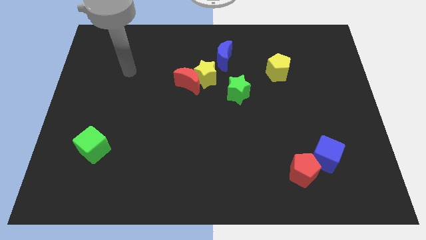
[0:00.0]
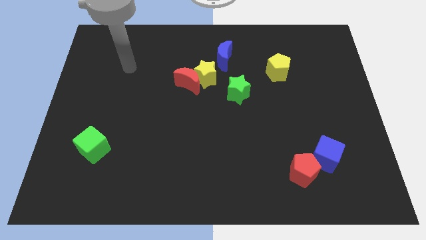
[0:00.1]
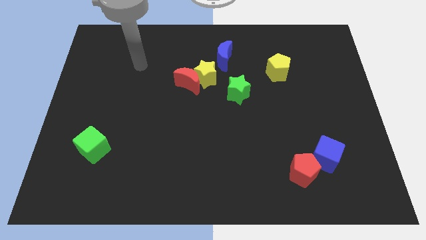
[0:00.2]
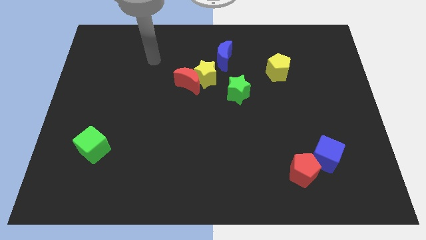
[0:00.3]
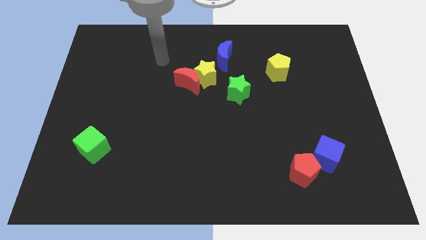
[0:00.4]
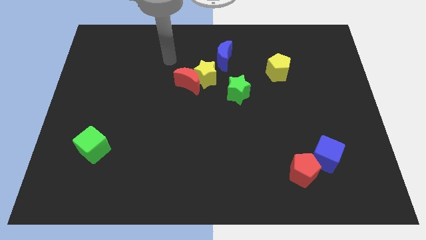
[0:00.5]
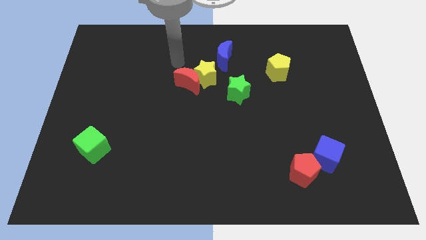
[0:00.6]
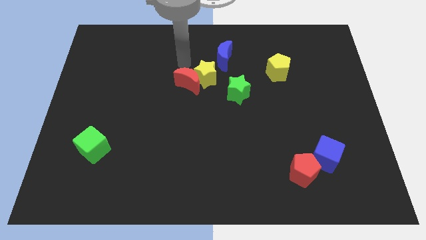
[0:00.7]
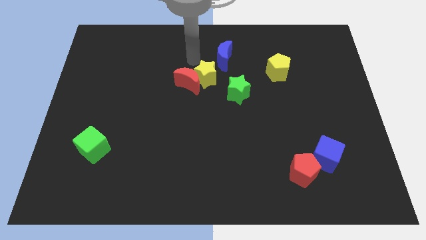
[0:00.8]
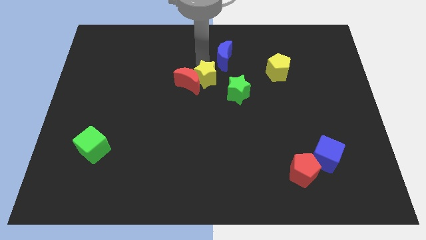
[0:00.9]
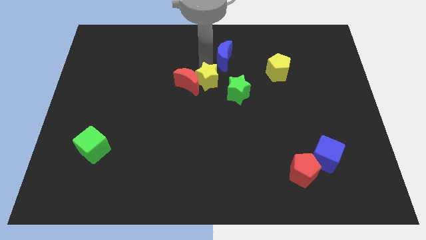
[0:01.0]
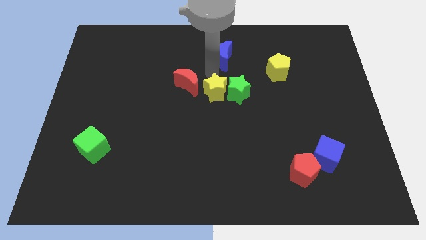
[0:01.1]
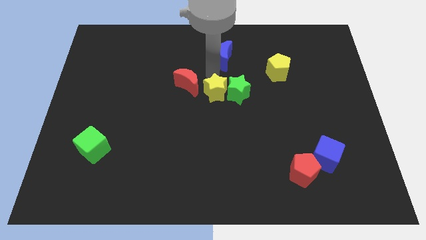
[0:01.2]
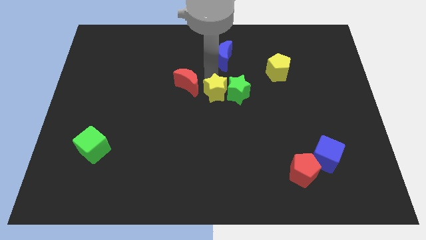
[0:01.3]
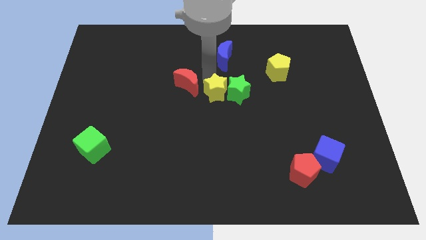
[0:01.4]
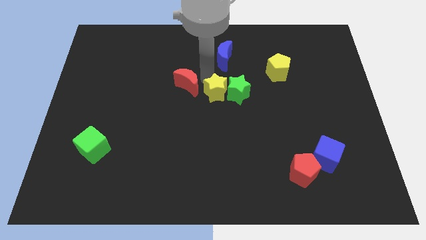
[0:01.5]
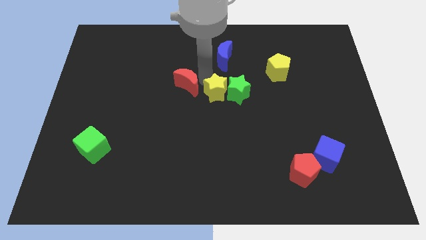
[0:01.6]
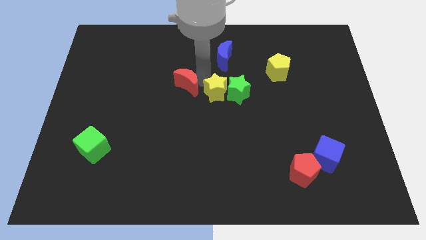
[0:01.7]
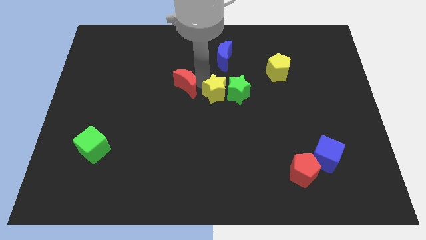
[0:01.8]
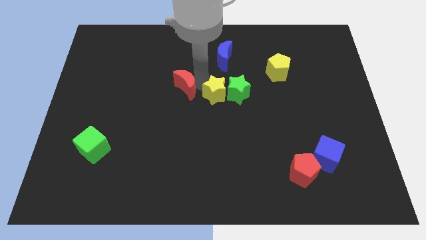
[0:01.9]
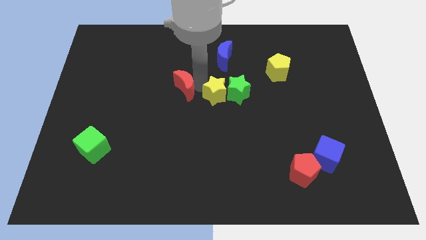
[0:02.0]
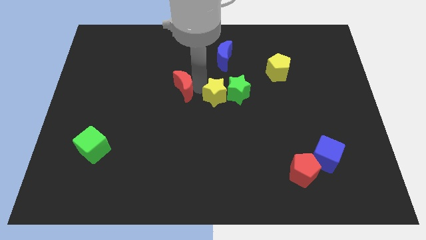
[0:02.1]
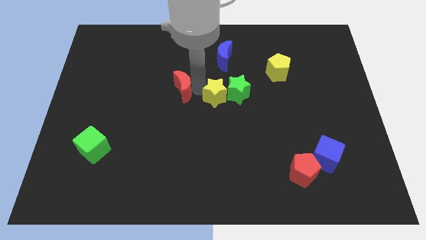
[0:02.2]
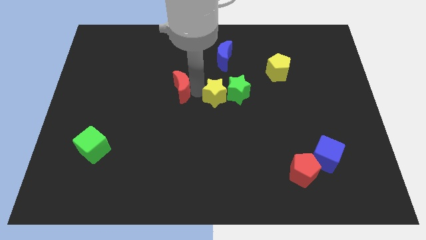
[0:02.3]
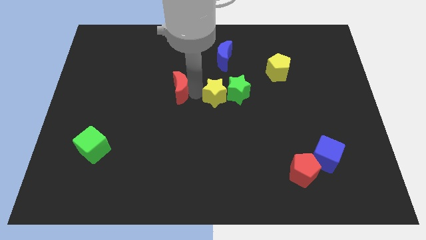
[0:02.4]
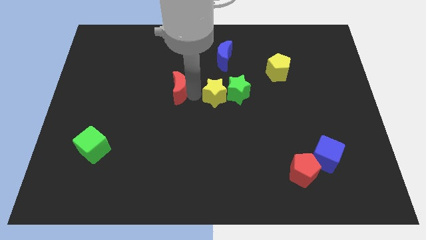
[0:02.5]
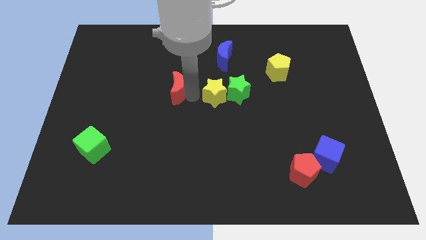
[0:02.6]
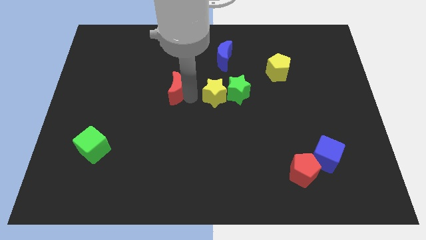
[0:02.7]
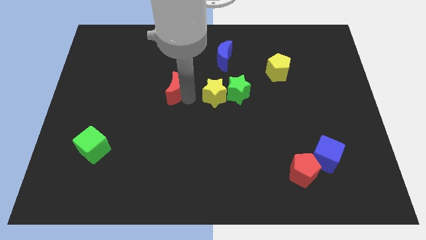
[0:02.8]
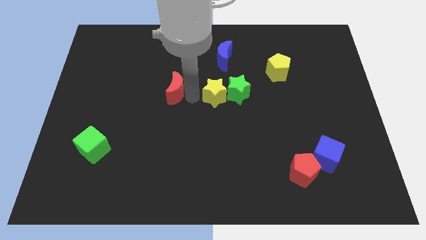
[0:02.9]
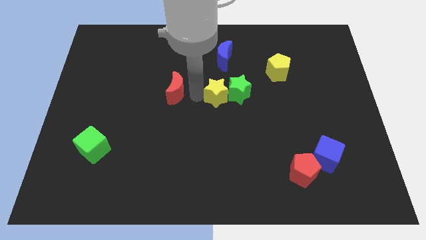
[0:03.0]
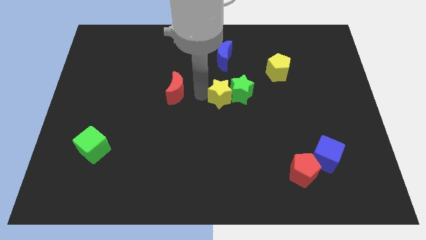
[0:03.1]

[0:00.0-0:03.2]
move the red moon away from the yellow star

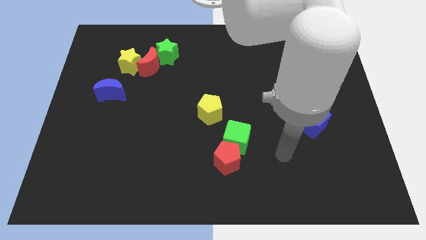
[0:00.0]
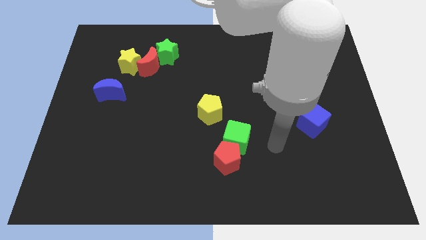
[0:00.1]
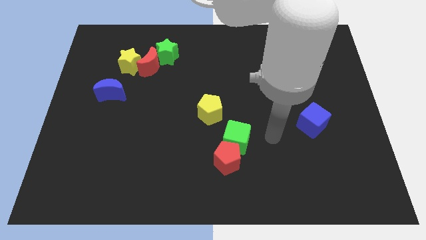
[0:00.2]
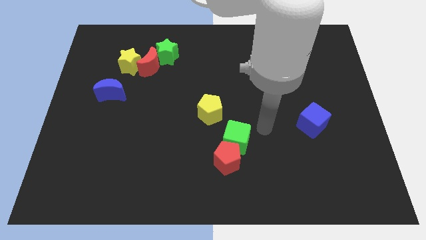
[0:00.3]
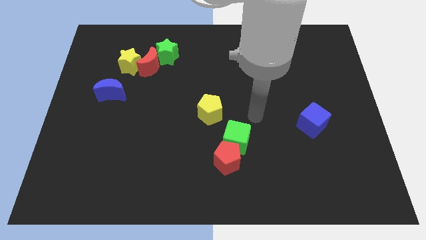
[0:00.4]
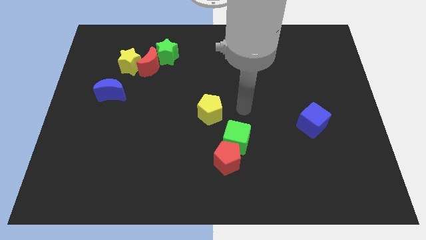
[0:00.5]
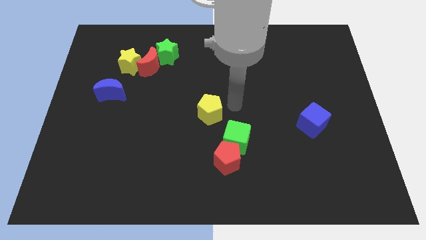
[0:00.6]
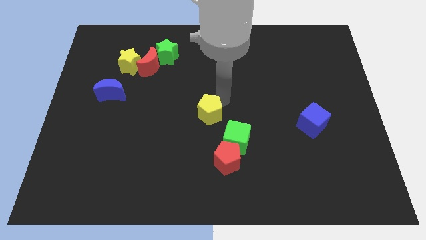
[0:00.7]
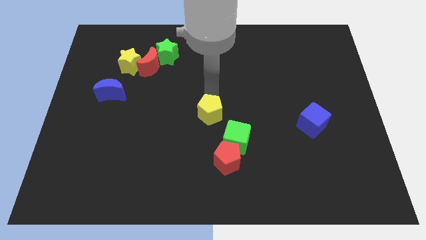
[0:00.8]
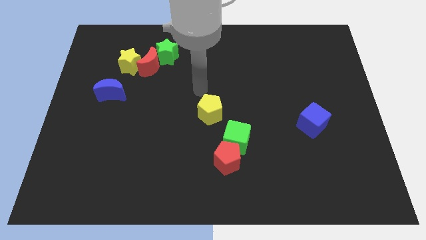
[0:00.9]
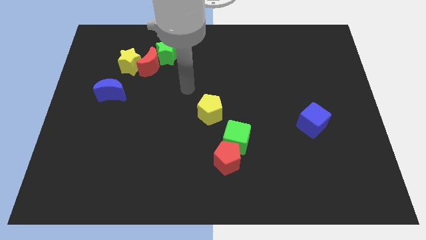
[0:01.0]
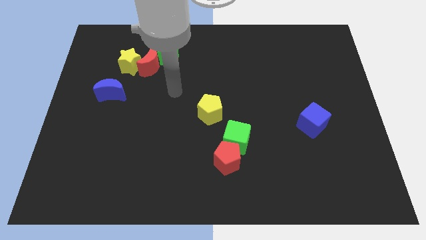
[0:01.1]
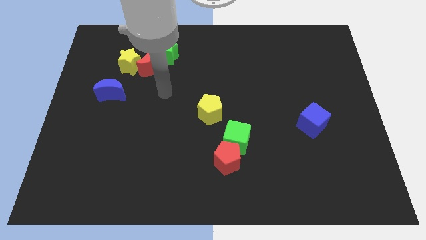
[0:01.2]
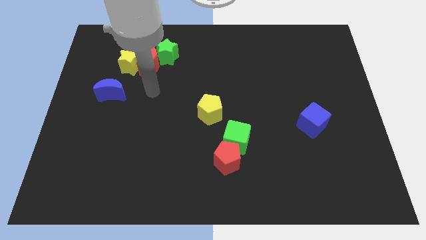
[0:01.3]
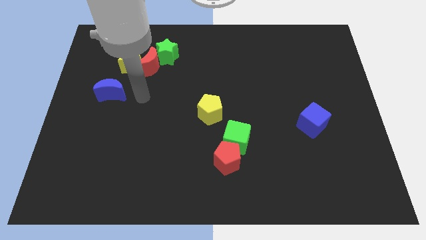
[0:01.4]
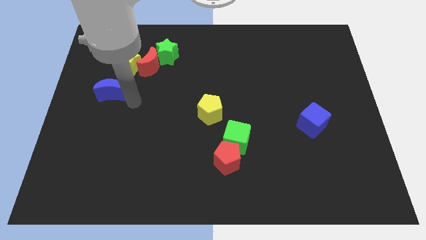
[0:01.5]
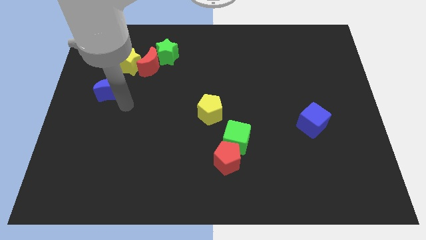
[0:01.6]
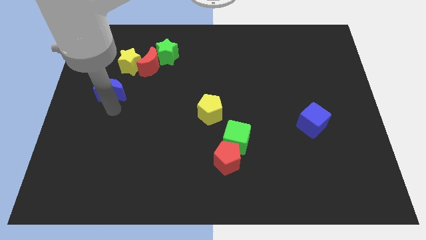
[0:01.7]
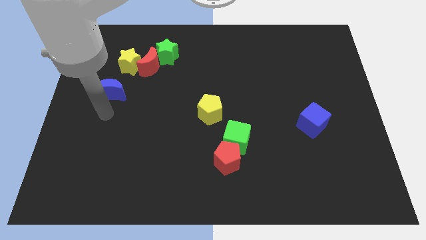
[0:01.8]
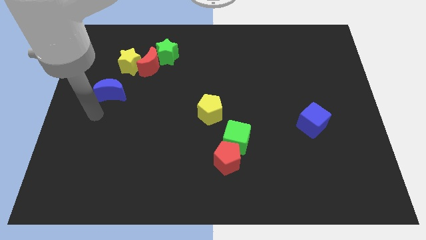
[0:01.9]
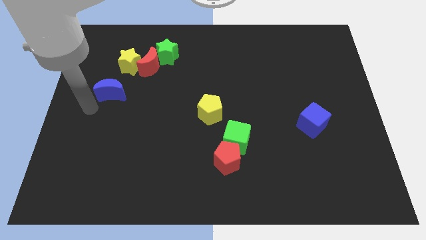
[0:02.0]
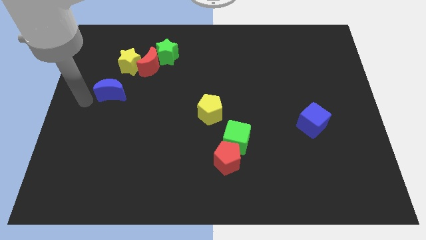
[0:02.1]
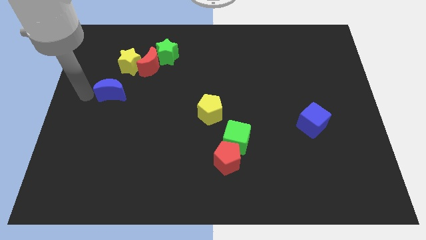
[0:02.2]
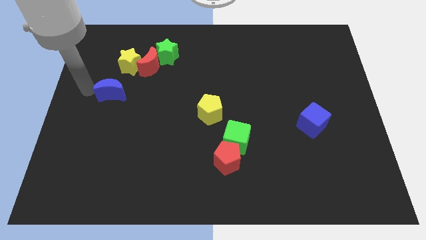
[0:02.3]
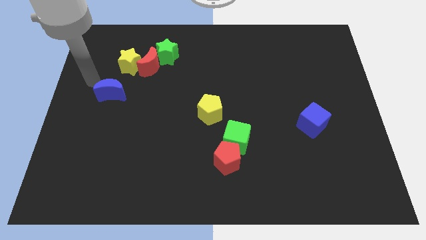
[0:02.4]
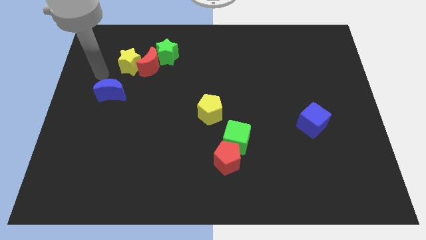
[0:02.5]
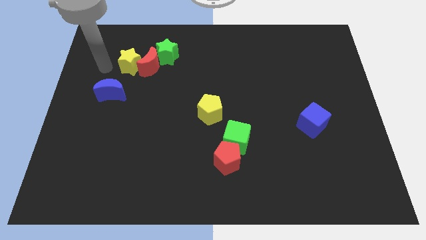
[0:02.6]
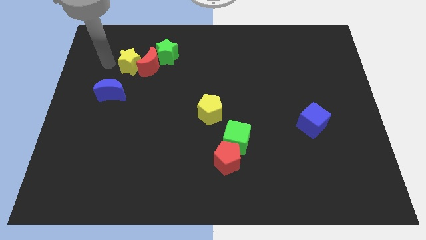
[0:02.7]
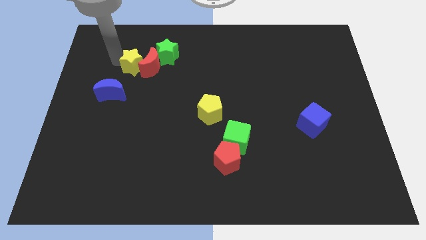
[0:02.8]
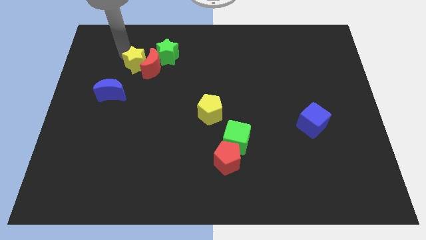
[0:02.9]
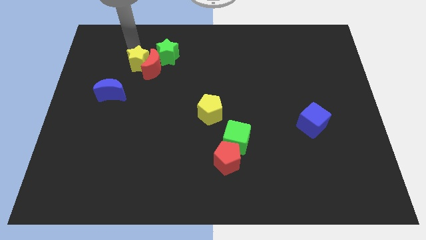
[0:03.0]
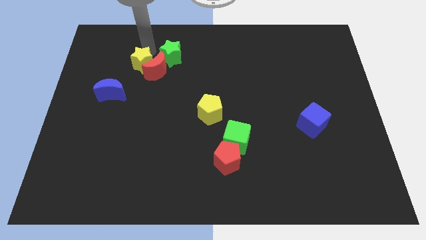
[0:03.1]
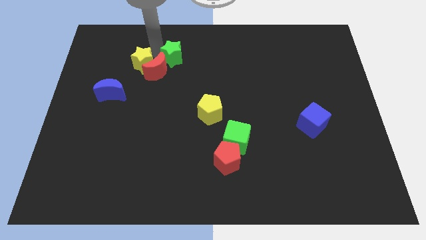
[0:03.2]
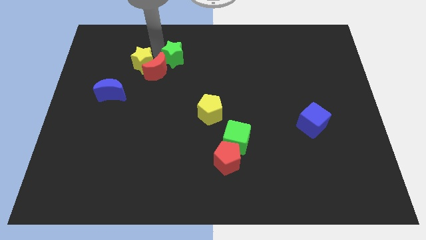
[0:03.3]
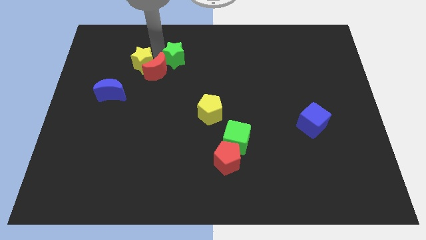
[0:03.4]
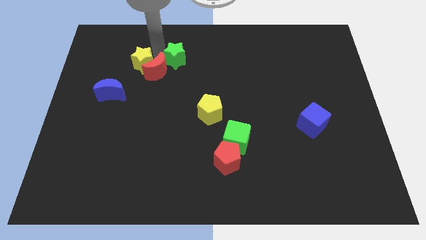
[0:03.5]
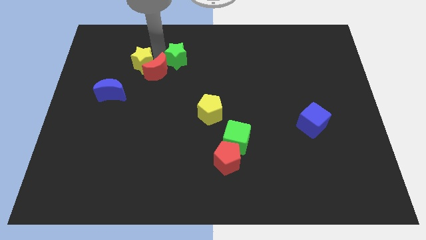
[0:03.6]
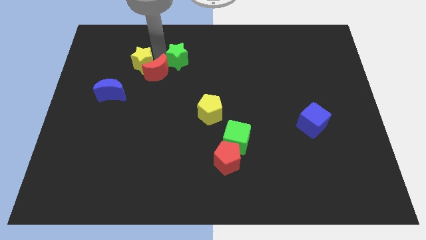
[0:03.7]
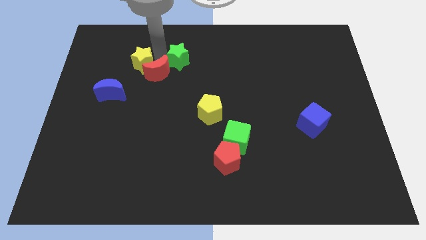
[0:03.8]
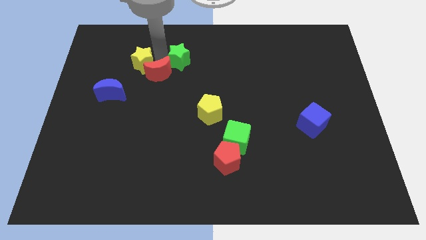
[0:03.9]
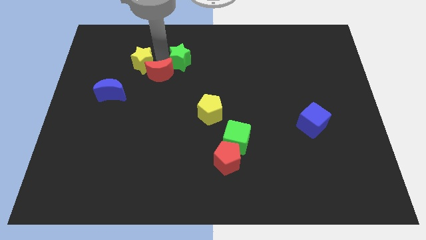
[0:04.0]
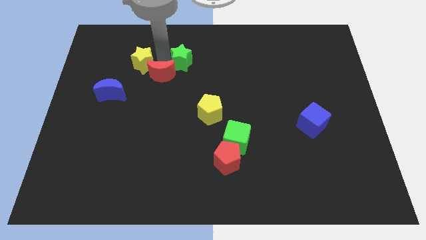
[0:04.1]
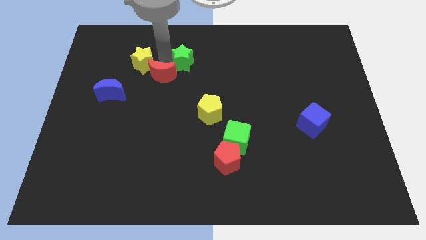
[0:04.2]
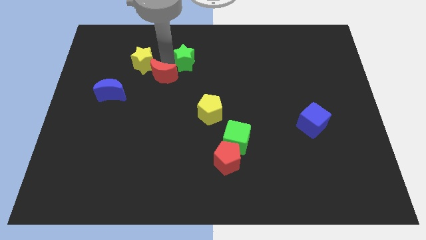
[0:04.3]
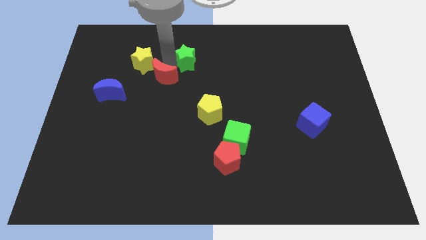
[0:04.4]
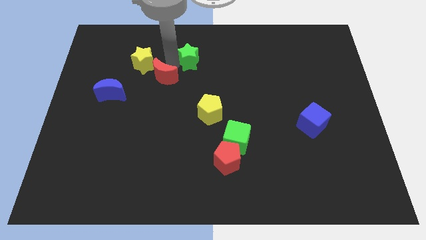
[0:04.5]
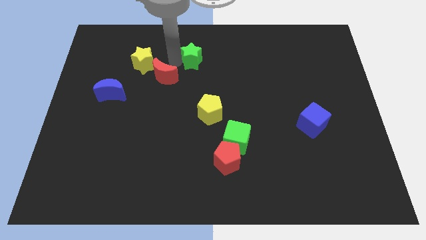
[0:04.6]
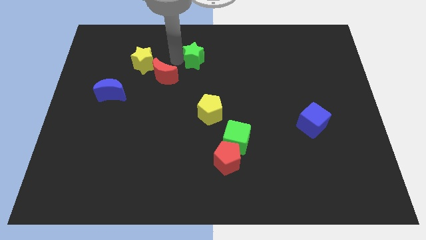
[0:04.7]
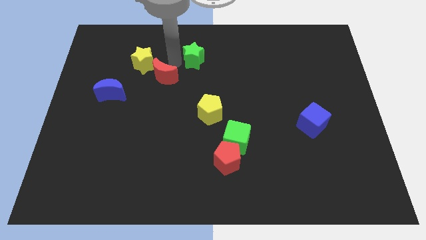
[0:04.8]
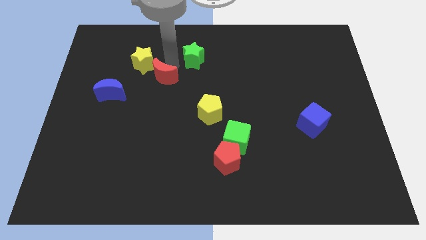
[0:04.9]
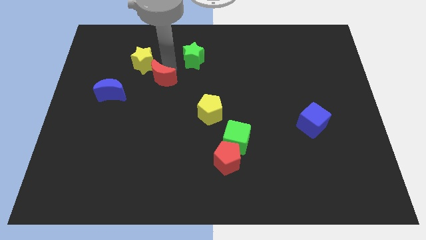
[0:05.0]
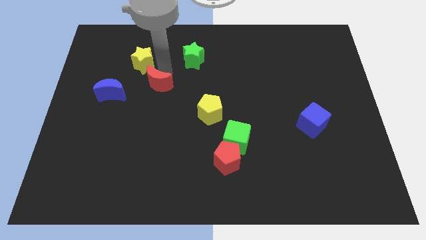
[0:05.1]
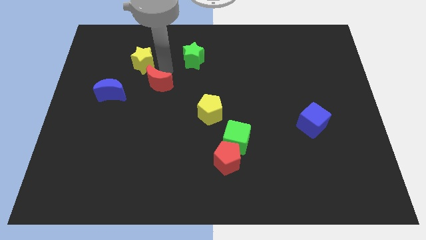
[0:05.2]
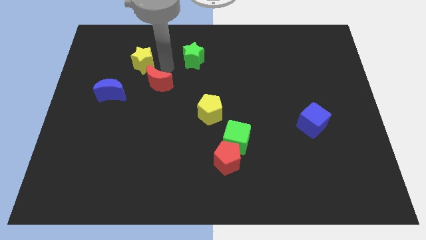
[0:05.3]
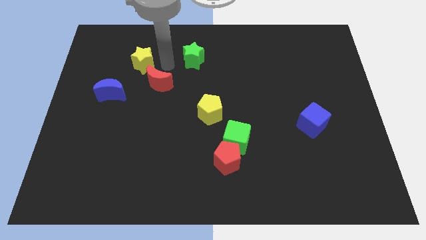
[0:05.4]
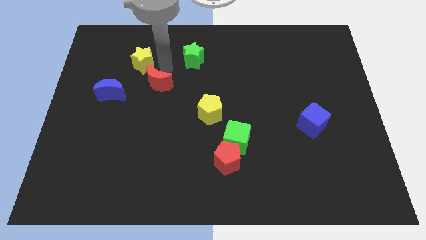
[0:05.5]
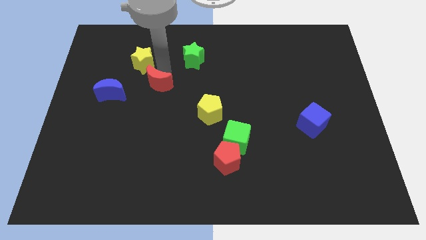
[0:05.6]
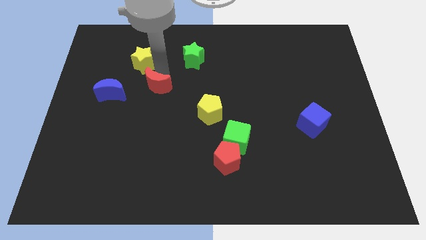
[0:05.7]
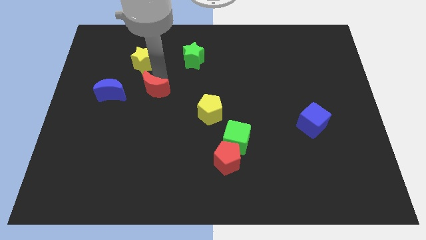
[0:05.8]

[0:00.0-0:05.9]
separate the red moon from the yellow star and green star

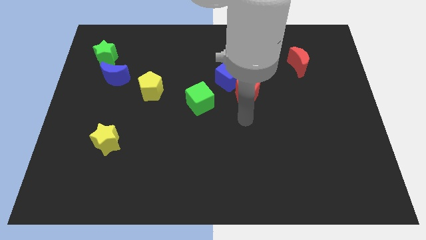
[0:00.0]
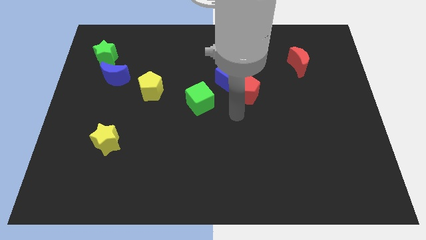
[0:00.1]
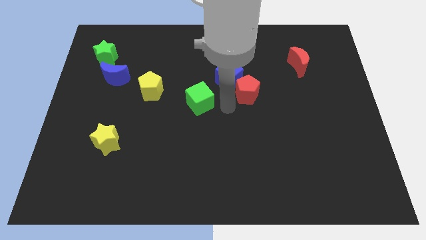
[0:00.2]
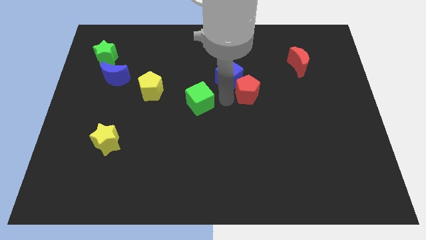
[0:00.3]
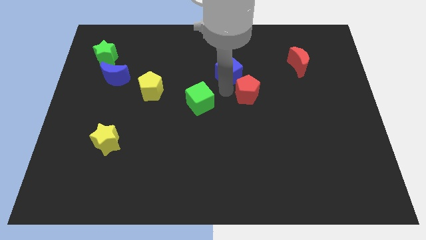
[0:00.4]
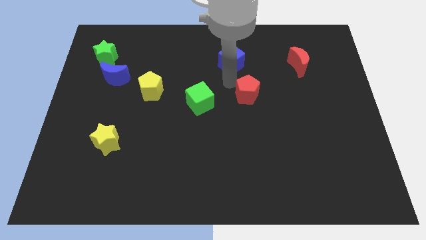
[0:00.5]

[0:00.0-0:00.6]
pull the red pentagon apart from the blue cube
